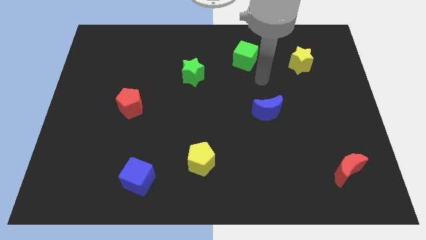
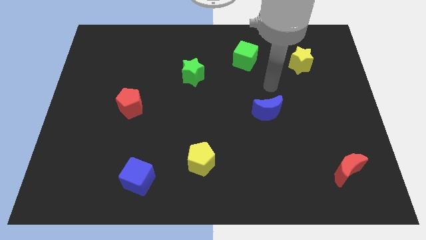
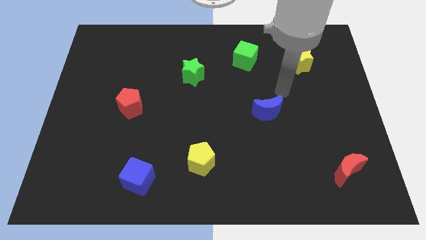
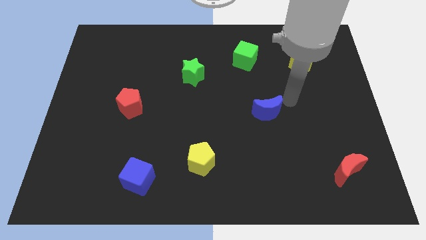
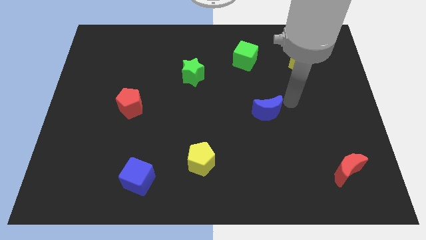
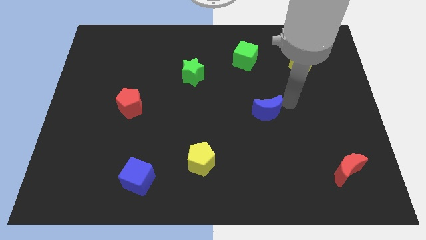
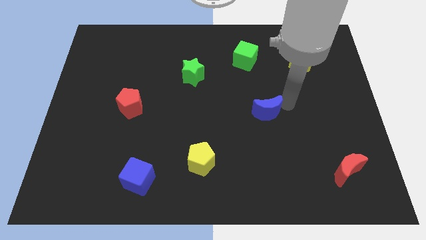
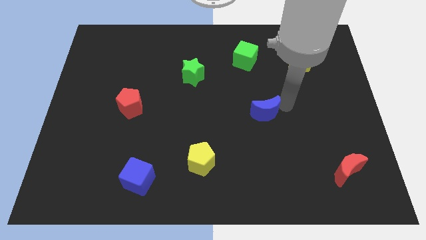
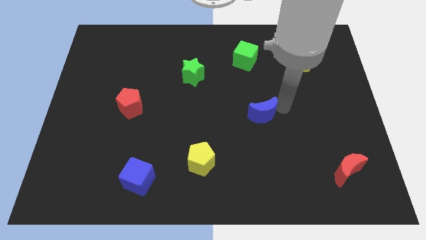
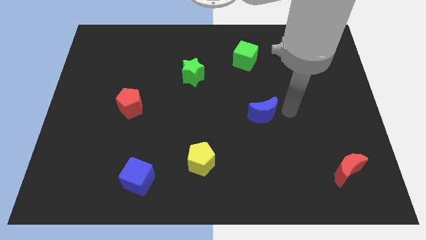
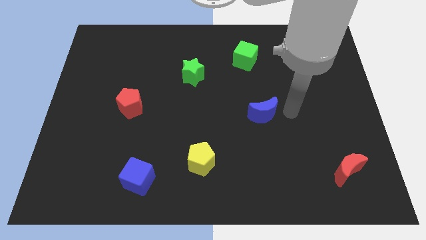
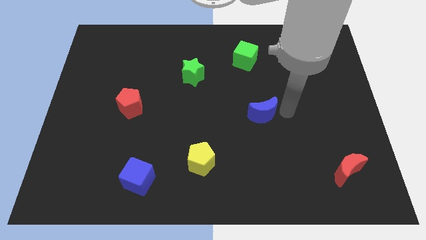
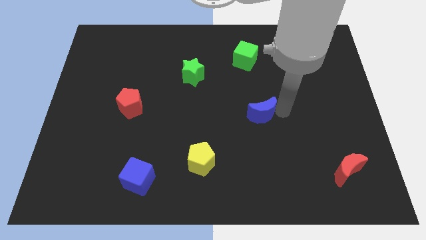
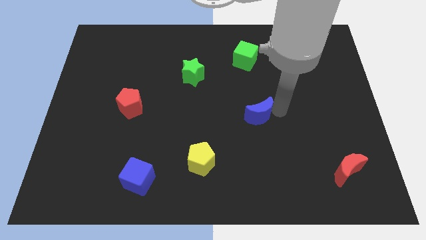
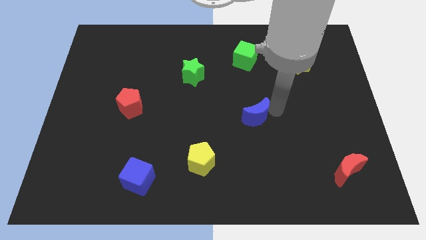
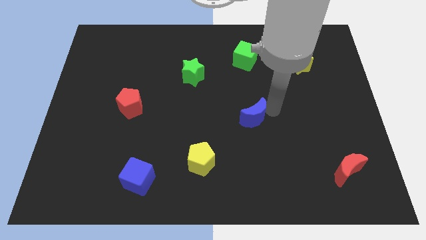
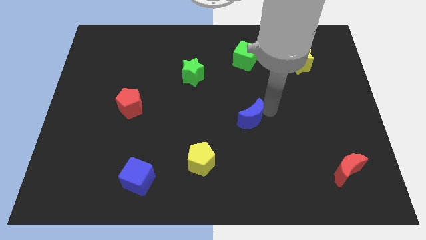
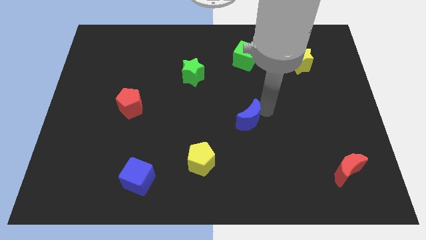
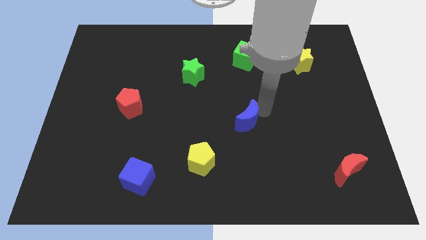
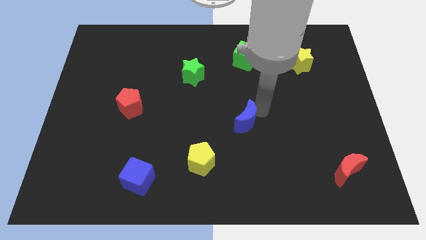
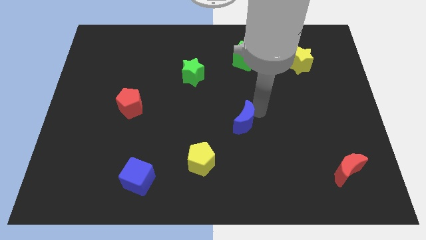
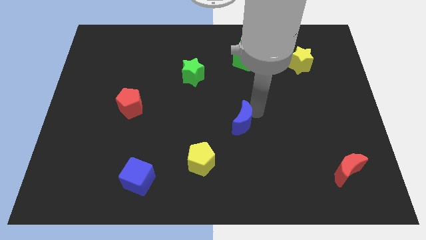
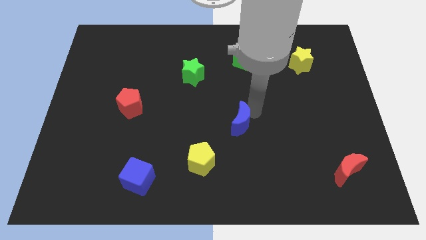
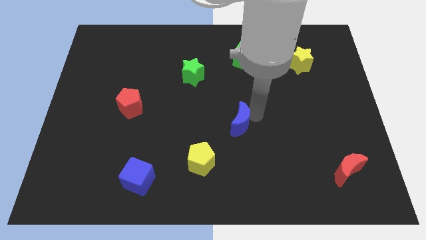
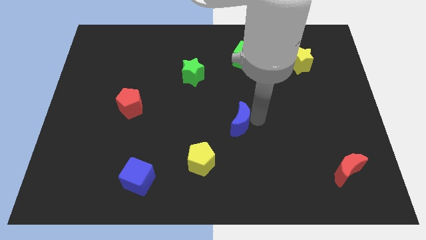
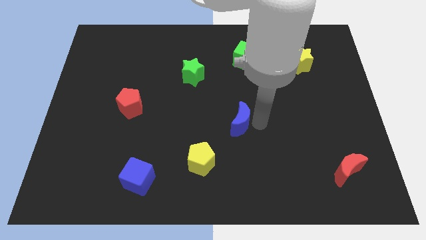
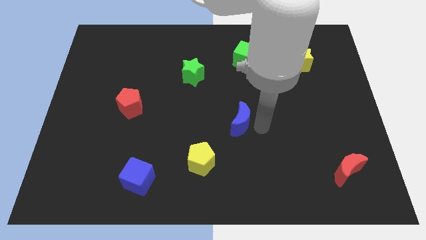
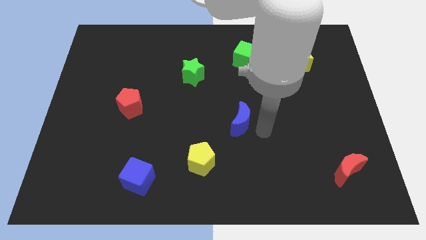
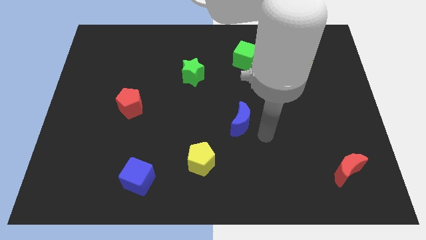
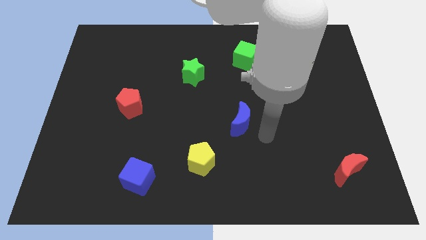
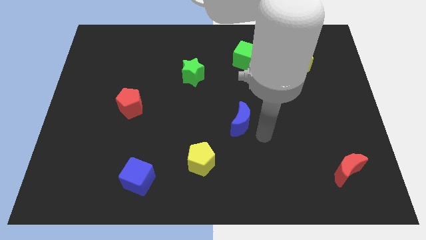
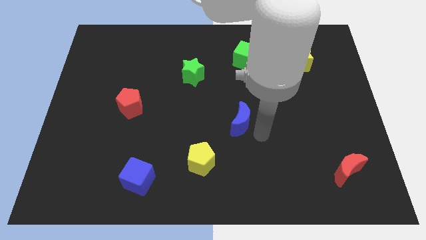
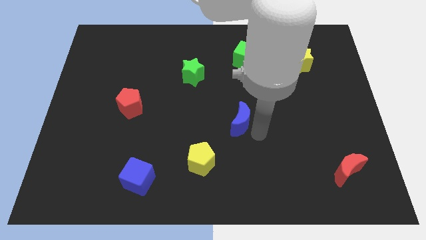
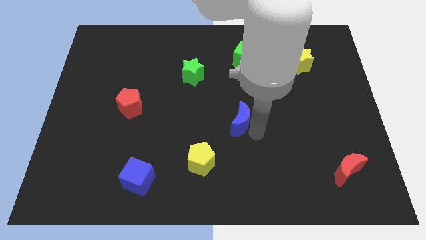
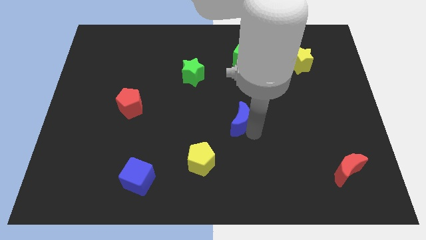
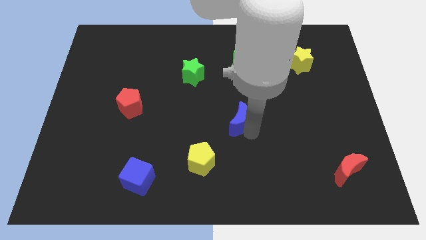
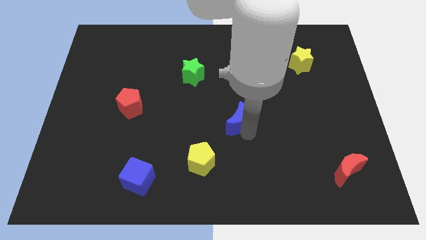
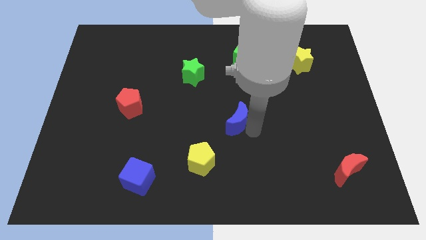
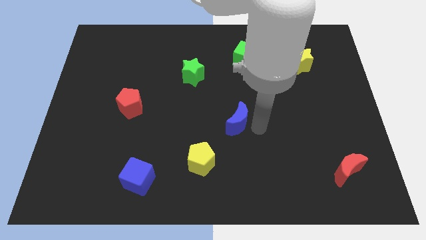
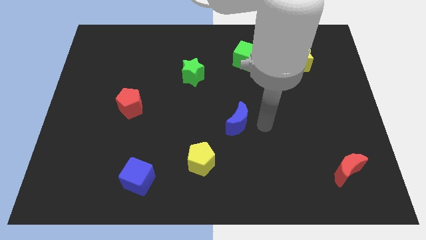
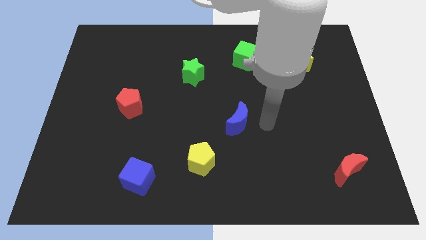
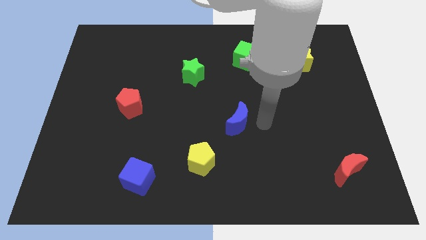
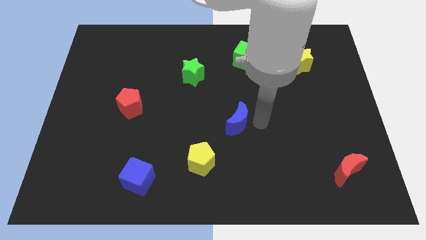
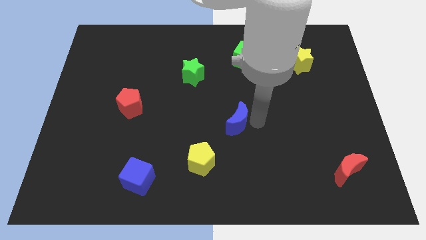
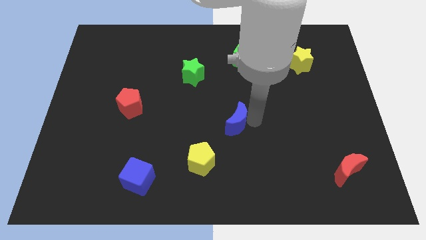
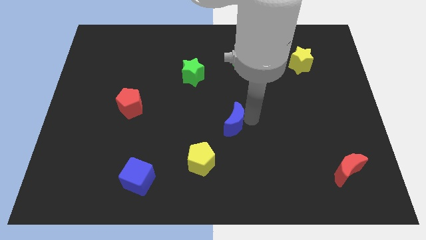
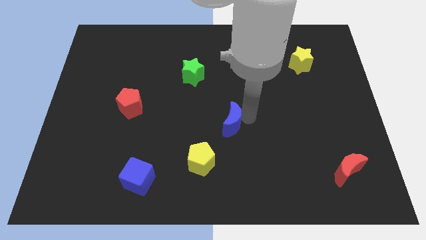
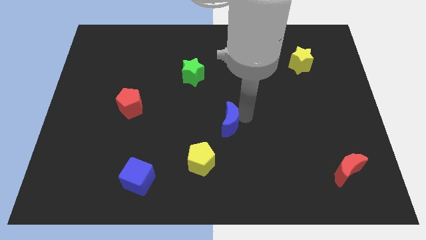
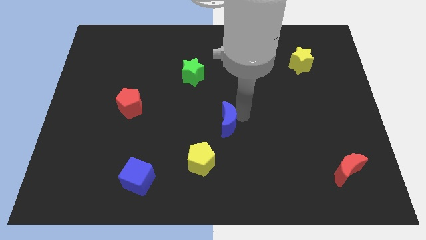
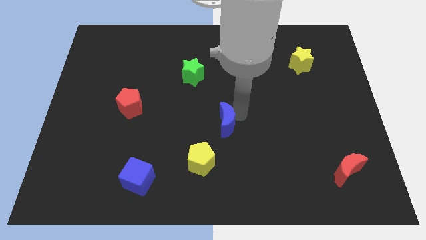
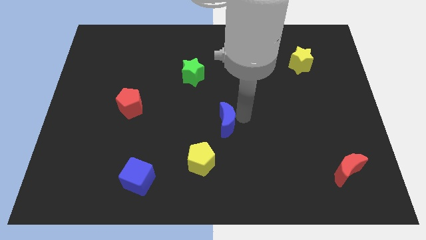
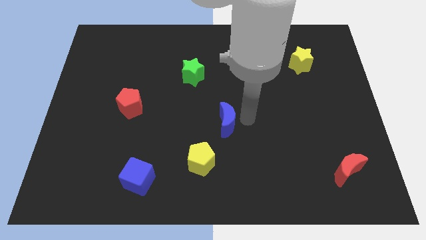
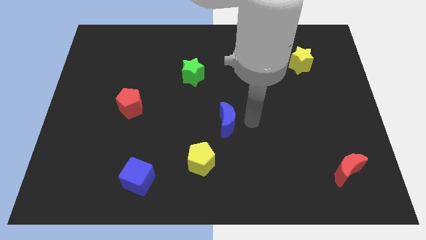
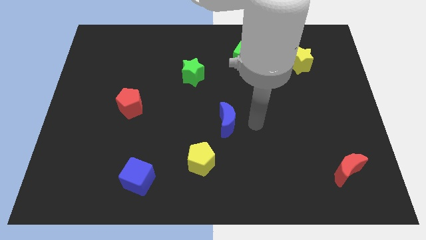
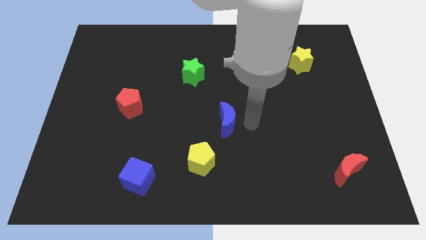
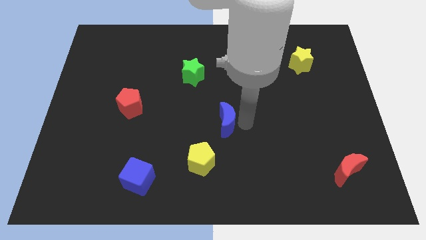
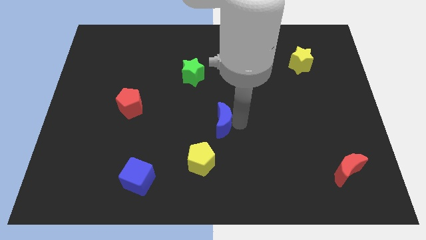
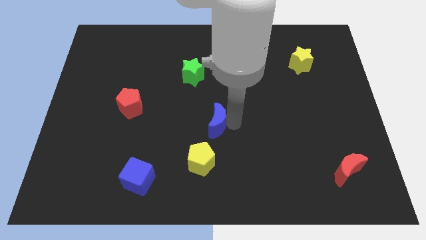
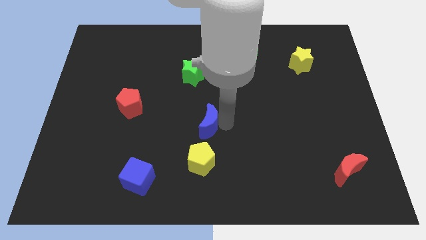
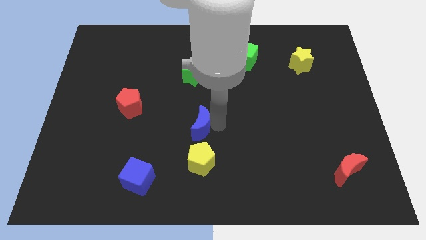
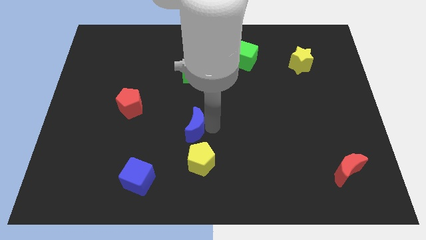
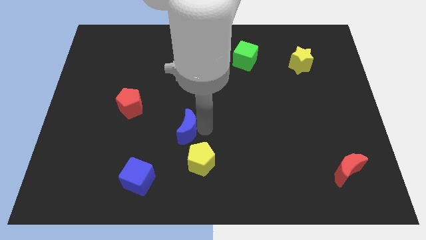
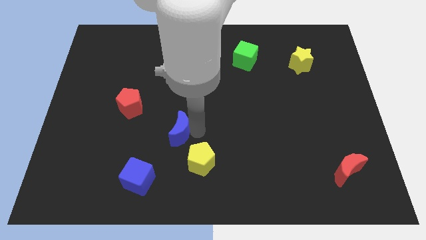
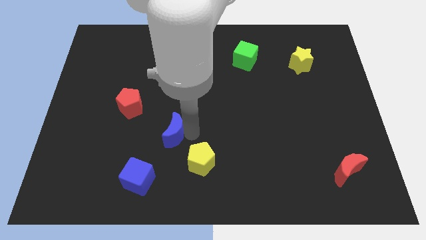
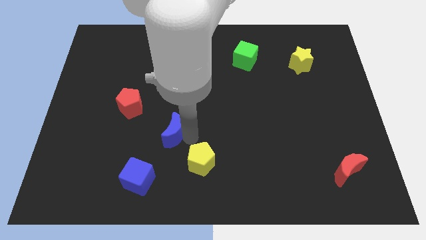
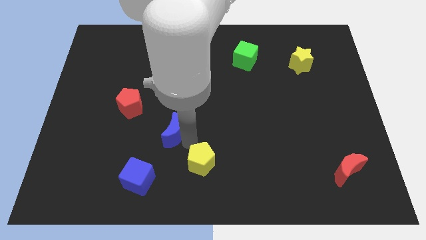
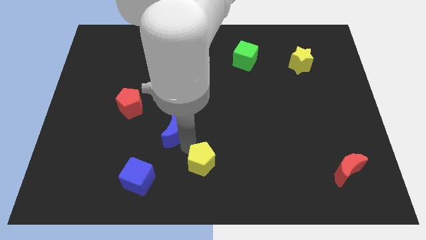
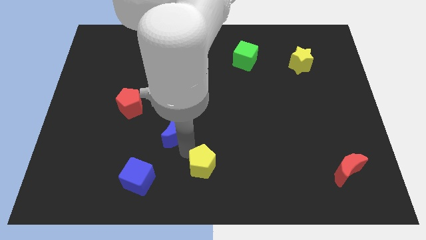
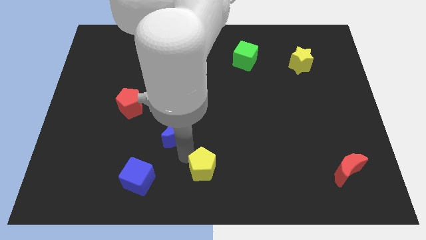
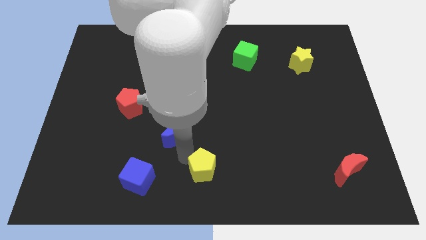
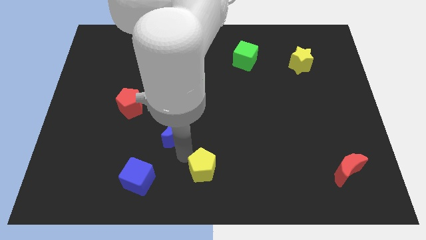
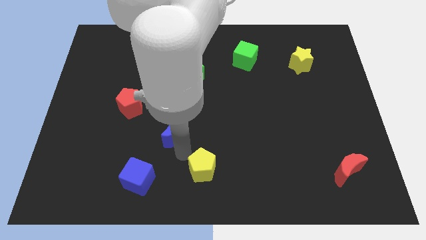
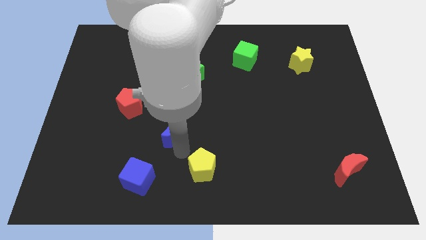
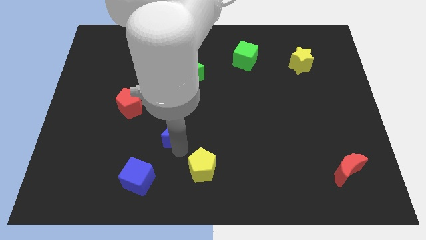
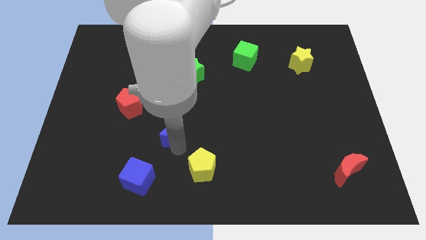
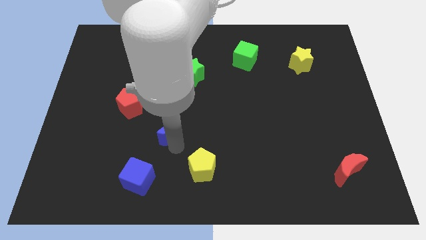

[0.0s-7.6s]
push the blue moon diagonally down and to the right of the red pentagon
